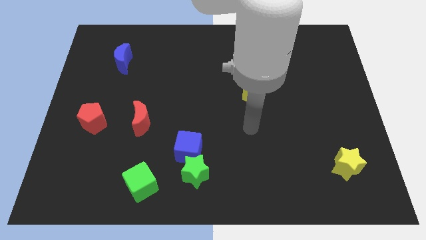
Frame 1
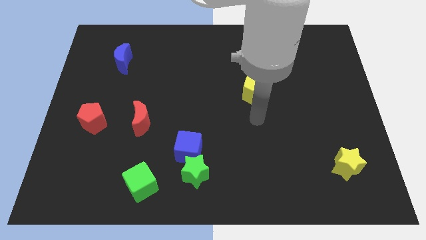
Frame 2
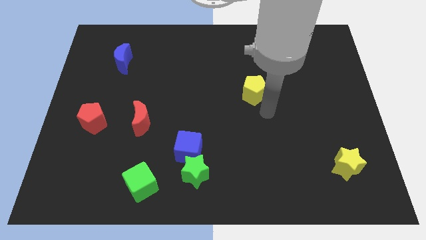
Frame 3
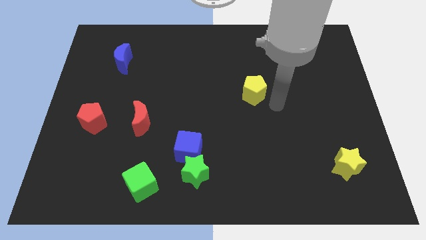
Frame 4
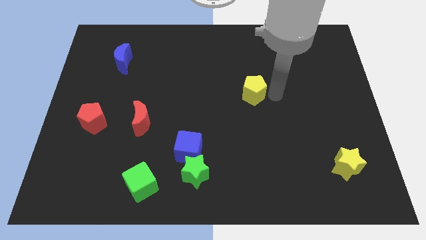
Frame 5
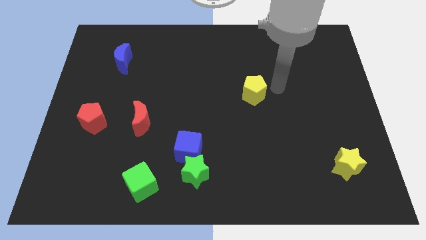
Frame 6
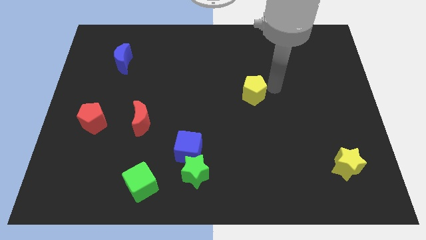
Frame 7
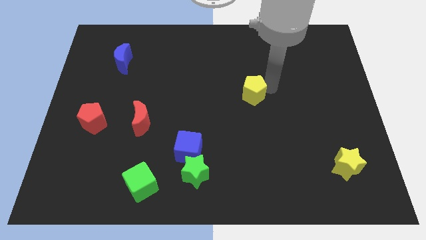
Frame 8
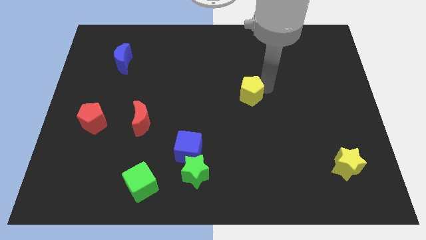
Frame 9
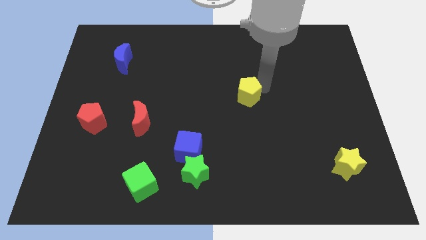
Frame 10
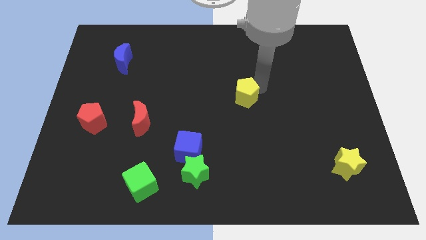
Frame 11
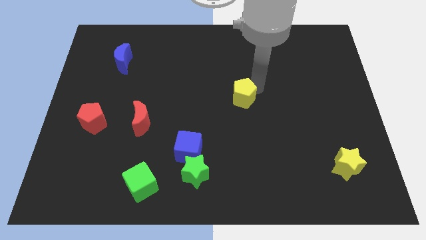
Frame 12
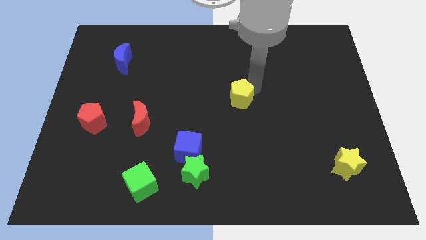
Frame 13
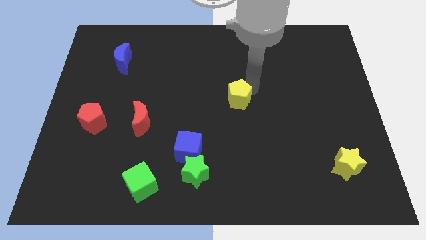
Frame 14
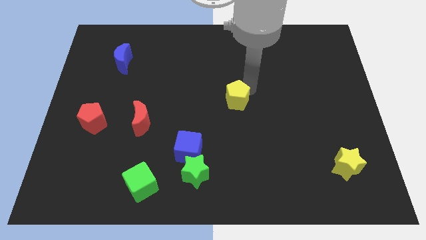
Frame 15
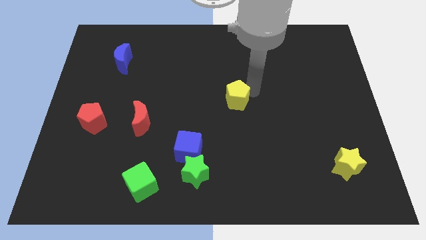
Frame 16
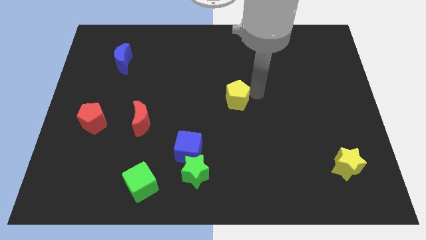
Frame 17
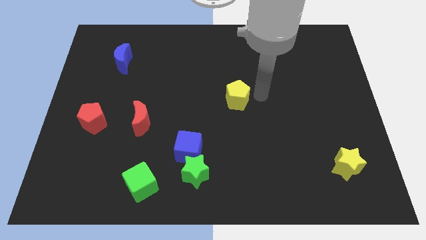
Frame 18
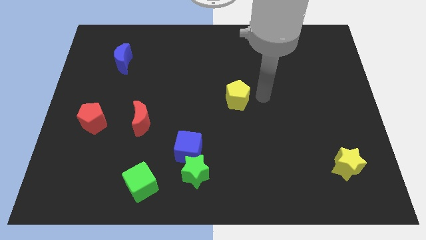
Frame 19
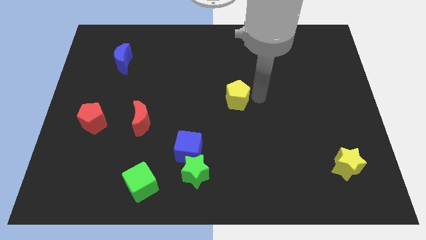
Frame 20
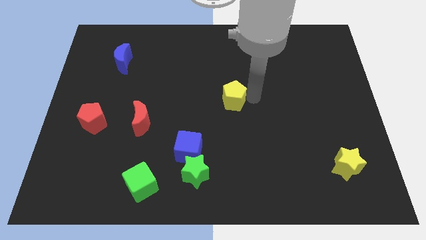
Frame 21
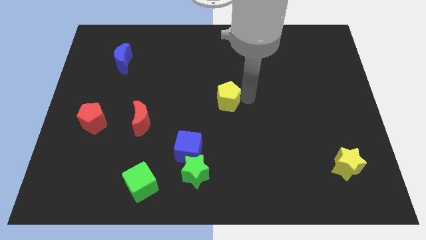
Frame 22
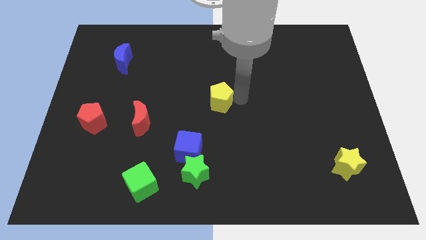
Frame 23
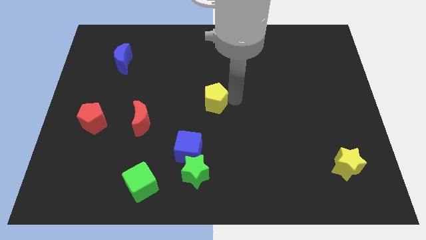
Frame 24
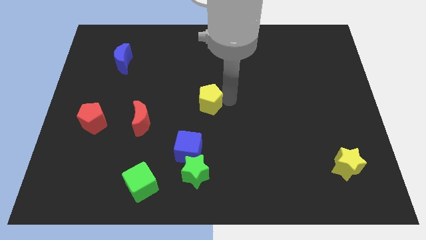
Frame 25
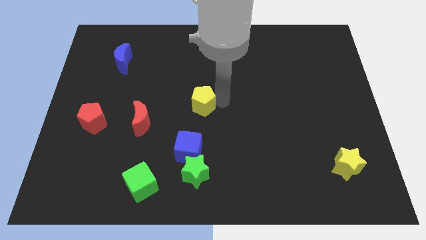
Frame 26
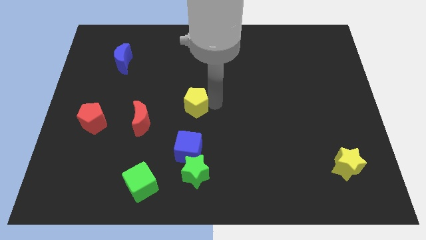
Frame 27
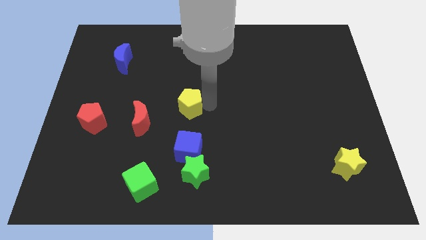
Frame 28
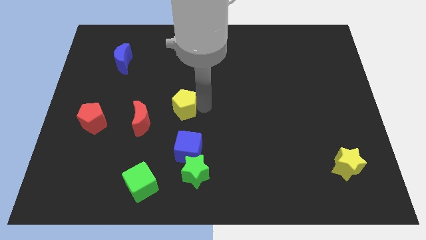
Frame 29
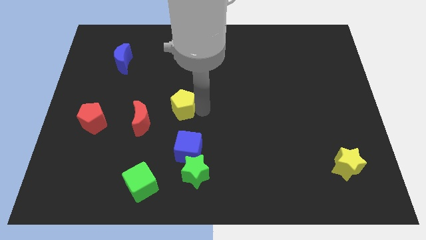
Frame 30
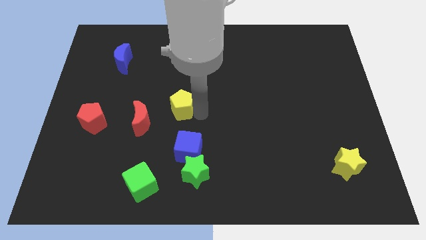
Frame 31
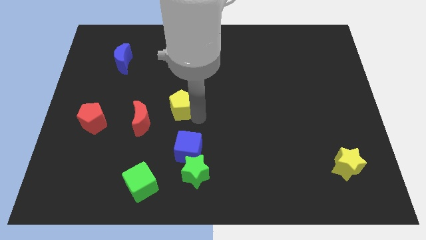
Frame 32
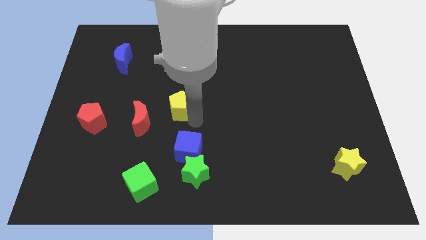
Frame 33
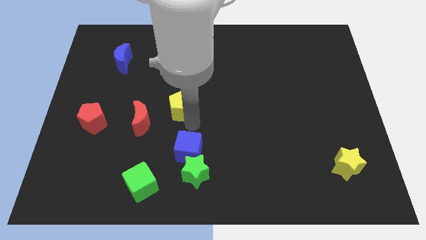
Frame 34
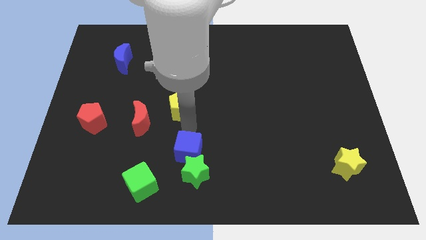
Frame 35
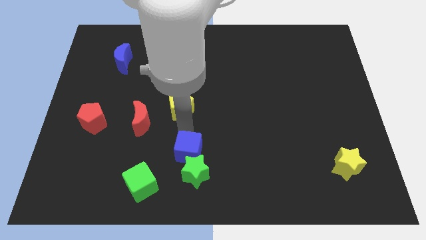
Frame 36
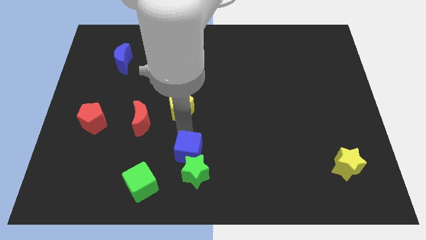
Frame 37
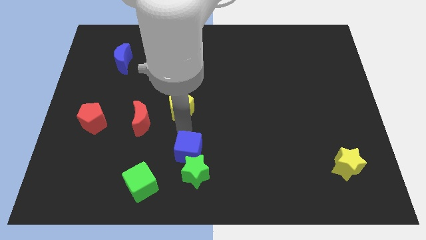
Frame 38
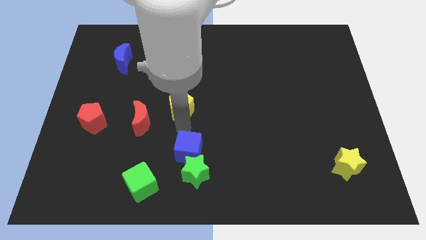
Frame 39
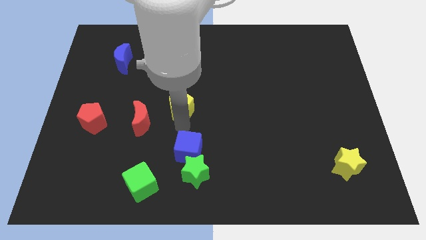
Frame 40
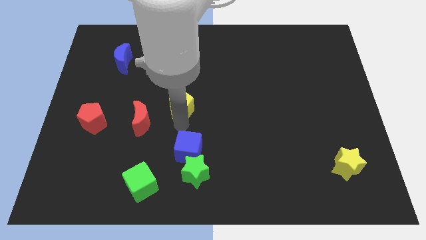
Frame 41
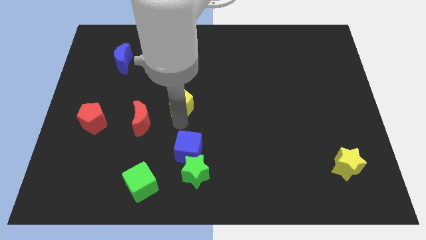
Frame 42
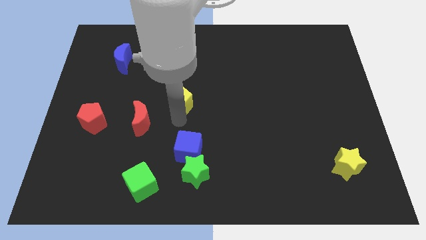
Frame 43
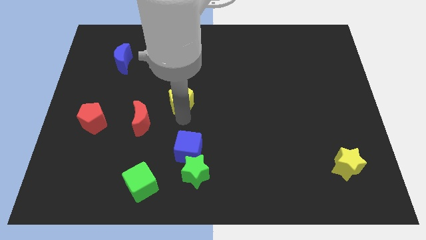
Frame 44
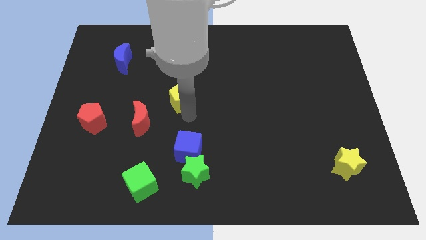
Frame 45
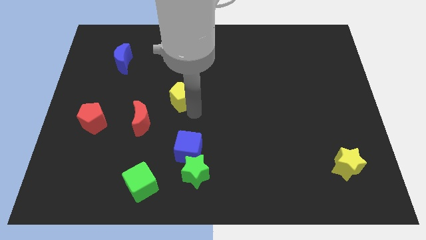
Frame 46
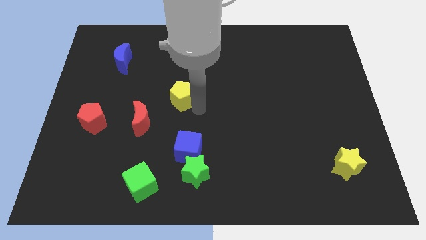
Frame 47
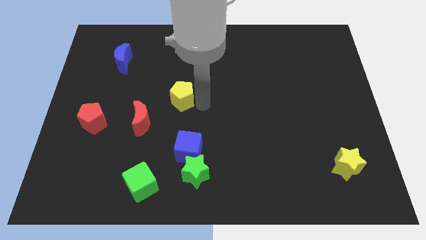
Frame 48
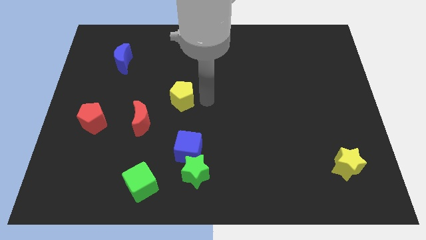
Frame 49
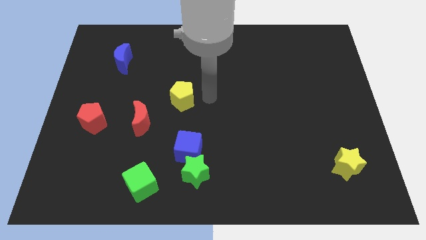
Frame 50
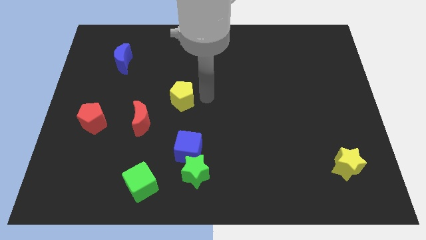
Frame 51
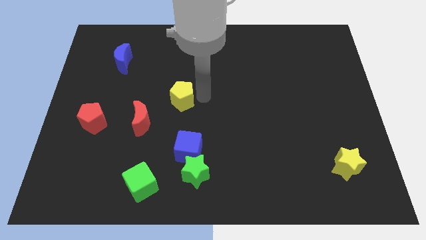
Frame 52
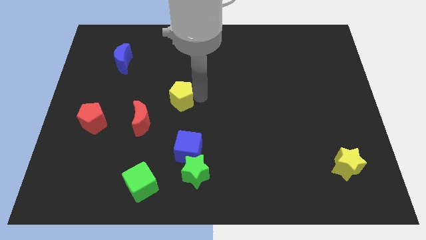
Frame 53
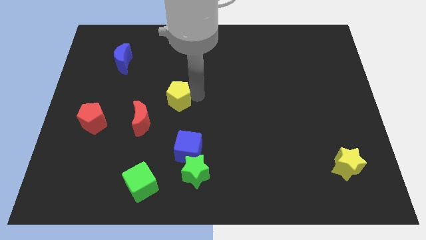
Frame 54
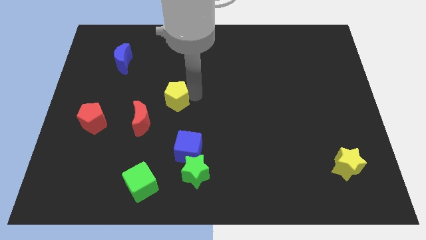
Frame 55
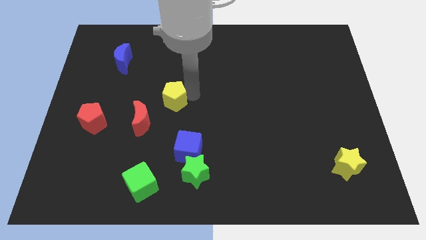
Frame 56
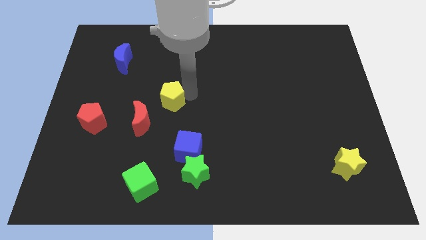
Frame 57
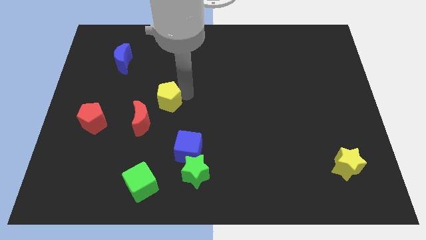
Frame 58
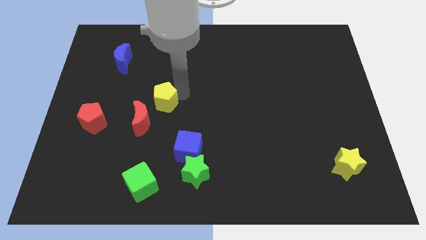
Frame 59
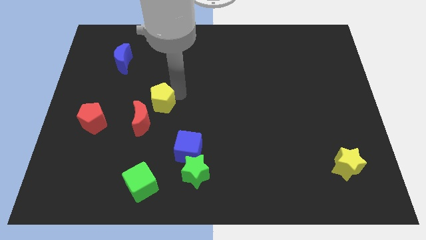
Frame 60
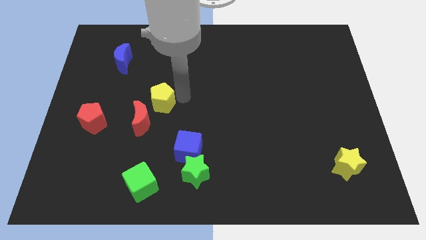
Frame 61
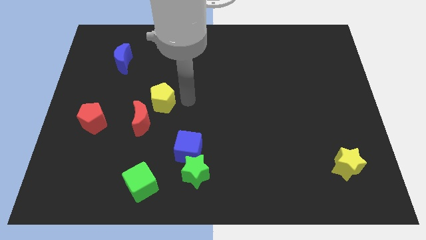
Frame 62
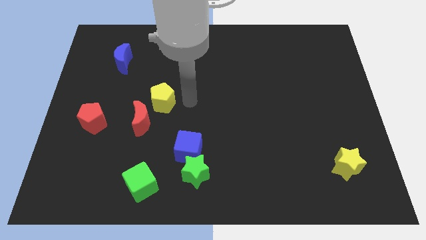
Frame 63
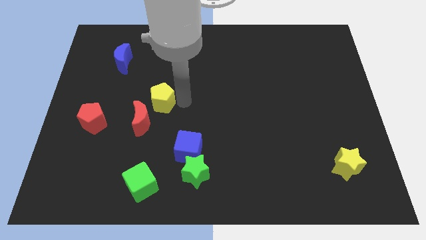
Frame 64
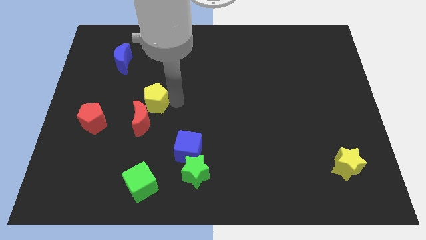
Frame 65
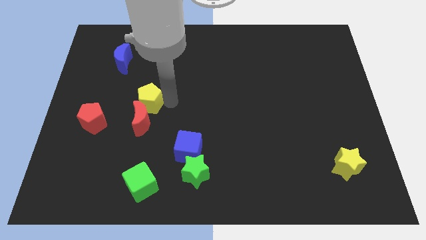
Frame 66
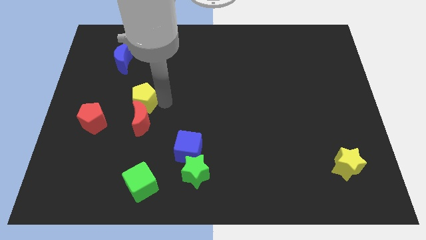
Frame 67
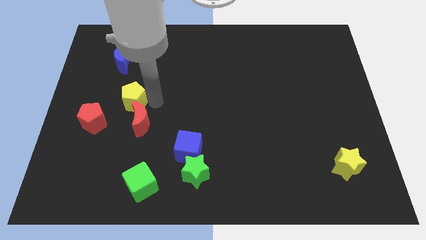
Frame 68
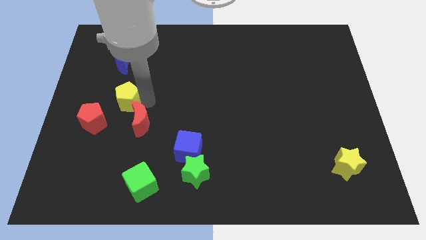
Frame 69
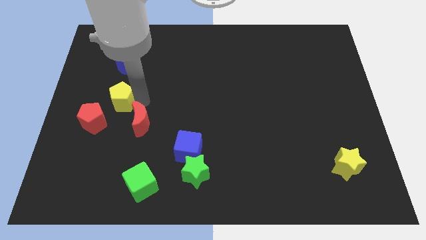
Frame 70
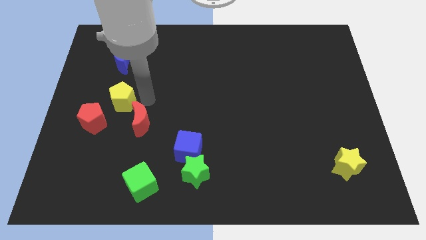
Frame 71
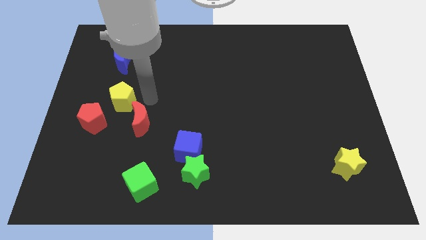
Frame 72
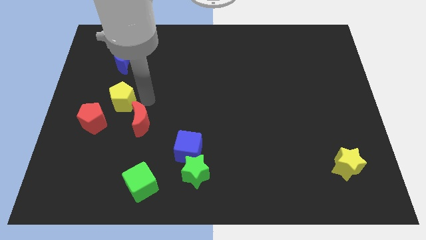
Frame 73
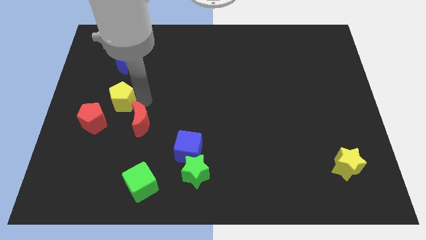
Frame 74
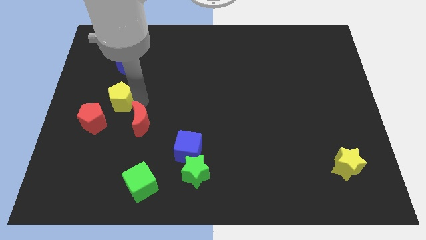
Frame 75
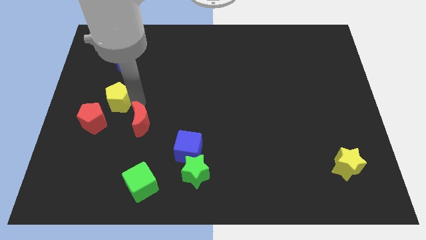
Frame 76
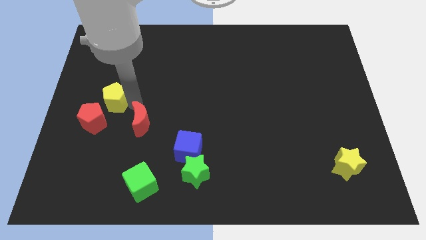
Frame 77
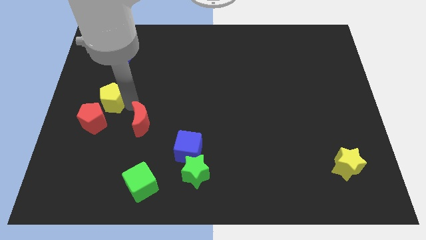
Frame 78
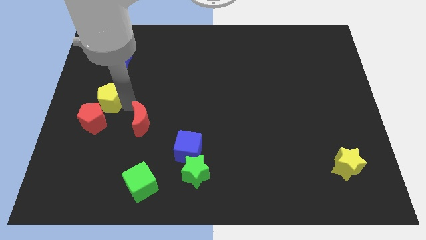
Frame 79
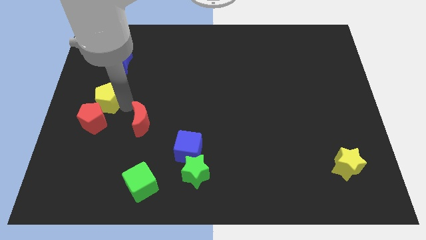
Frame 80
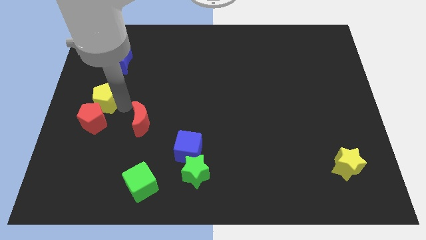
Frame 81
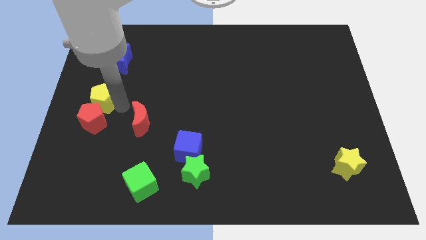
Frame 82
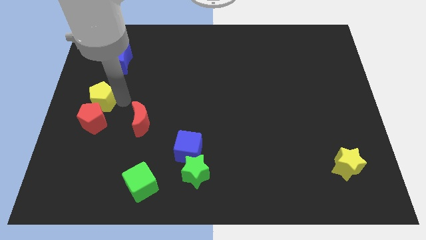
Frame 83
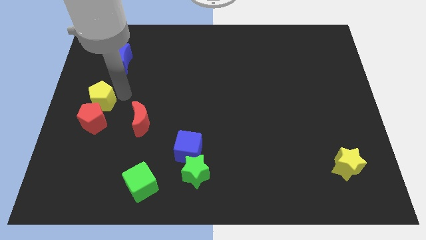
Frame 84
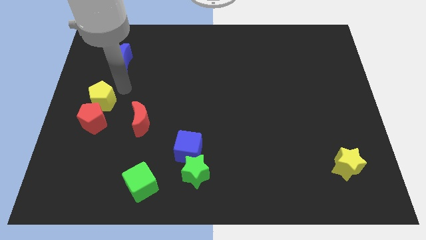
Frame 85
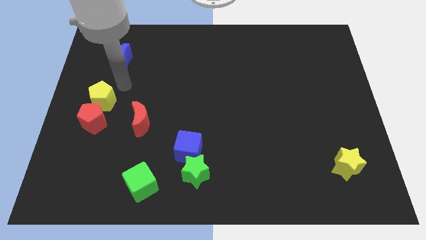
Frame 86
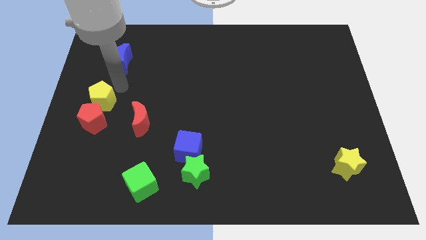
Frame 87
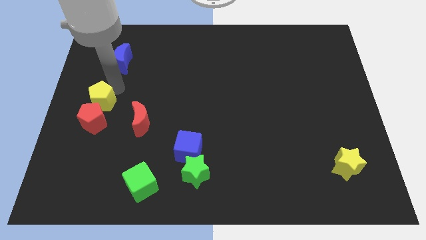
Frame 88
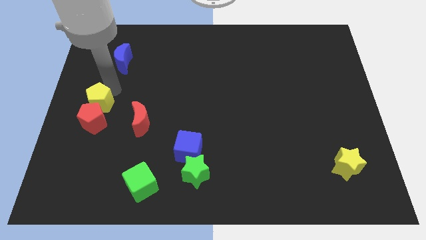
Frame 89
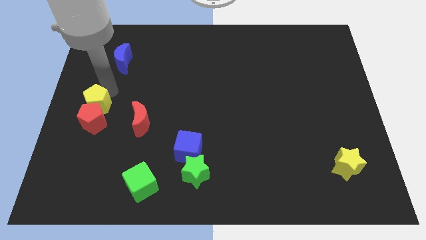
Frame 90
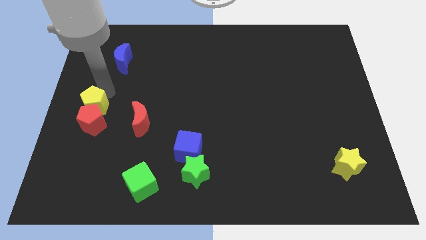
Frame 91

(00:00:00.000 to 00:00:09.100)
push the yellow pentagon just left of the red moon
